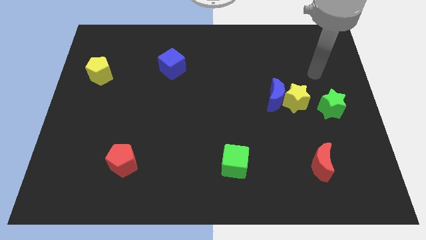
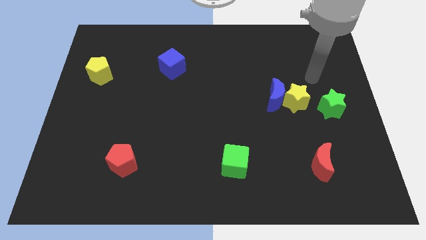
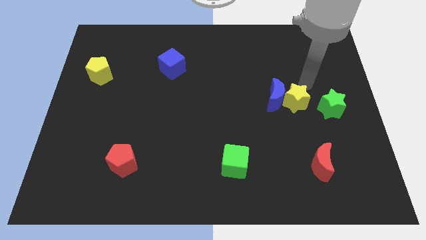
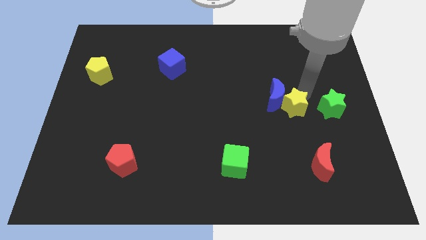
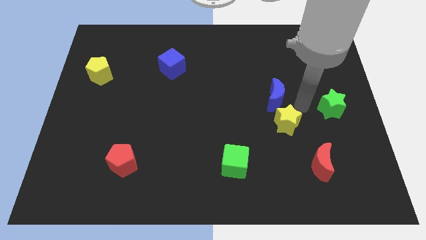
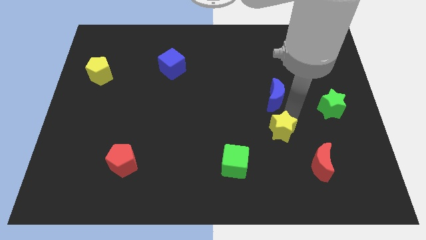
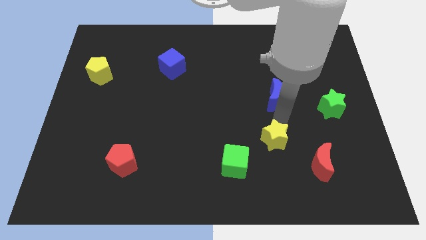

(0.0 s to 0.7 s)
move the blue moon away from the yellow star

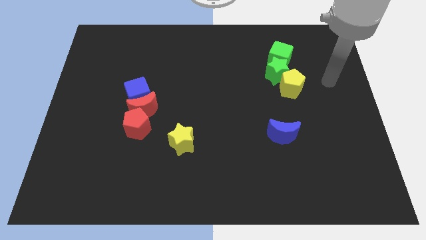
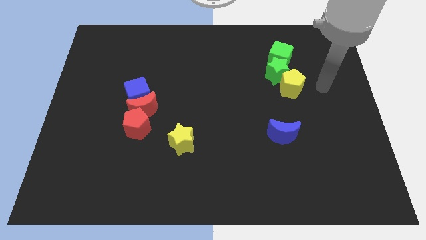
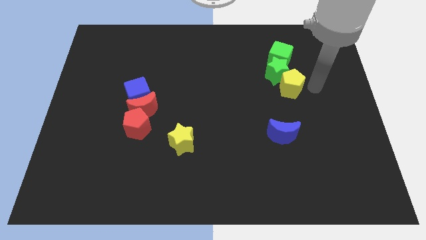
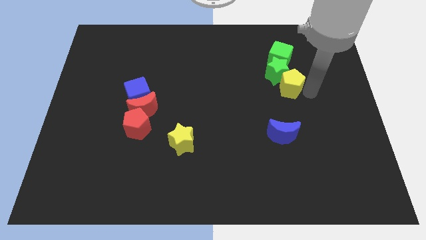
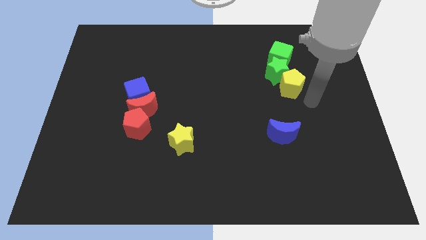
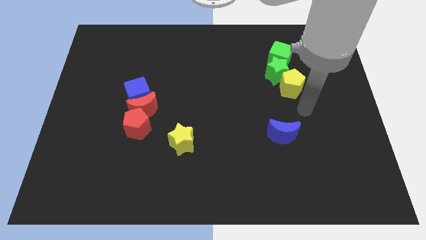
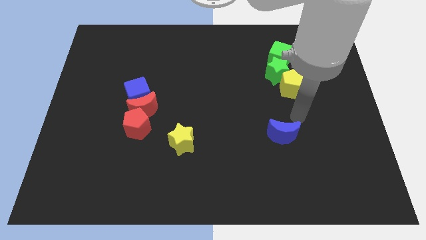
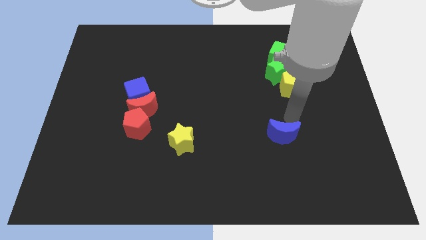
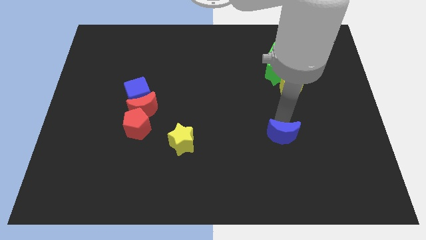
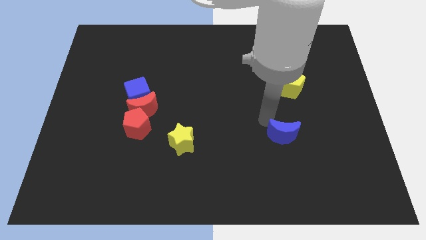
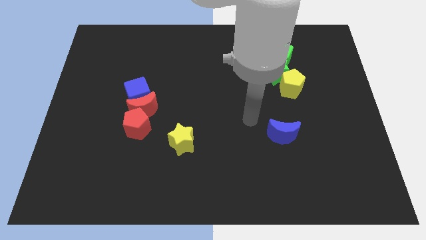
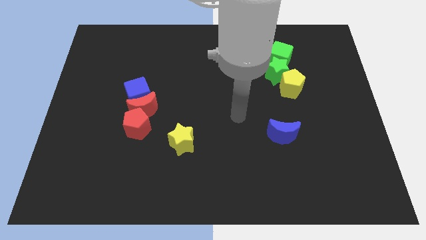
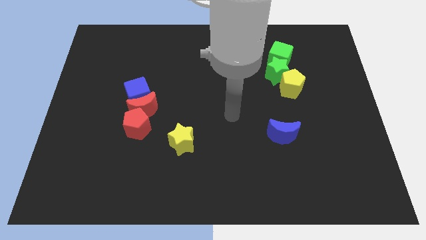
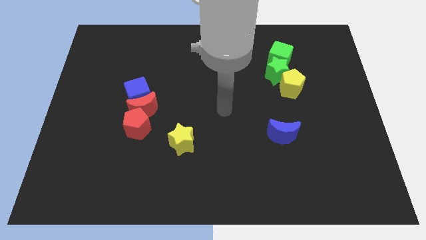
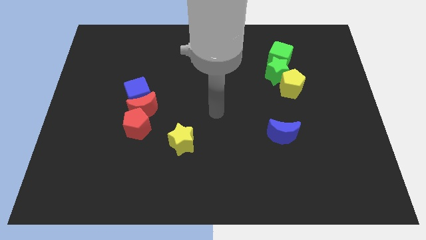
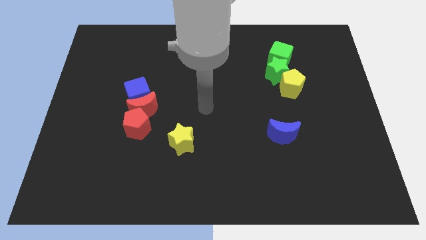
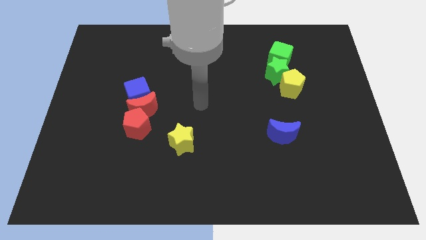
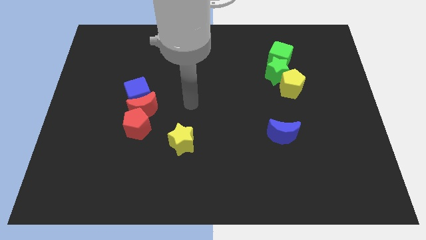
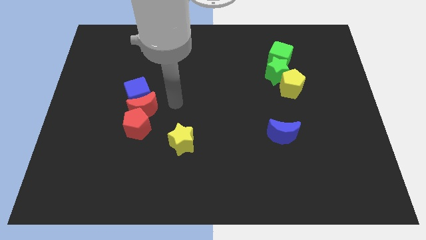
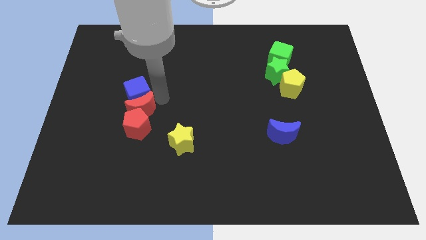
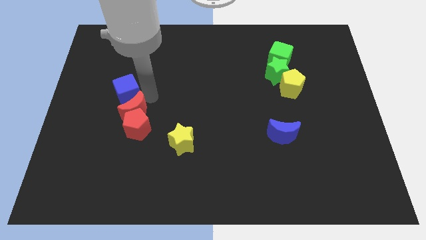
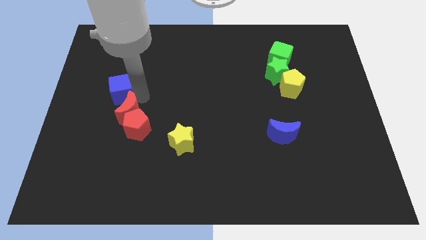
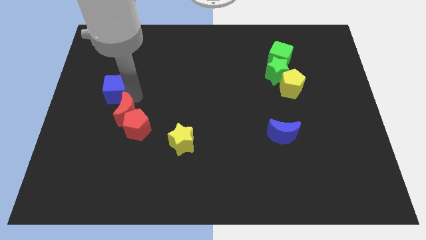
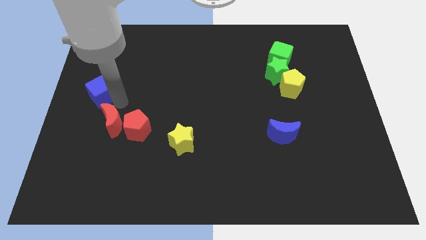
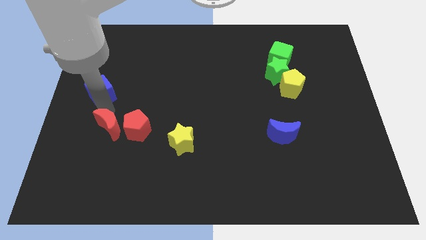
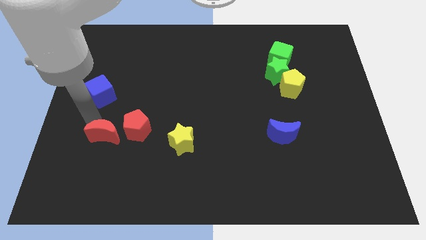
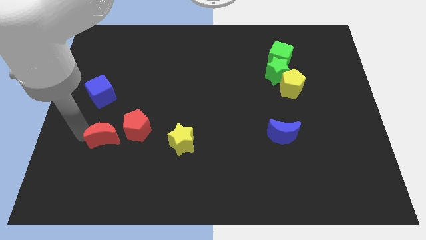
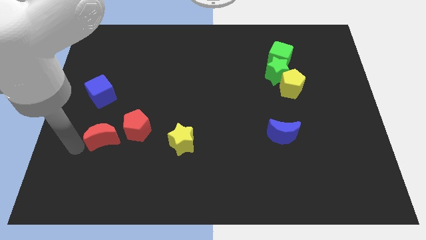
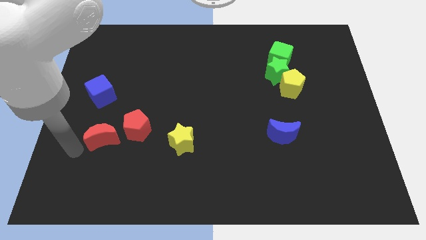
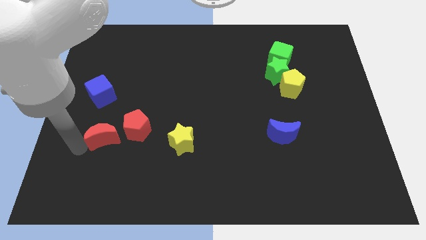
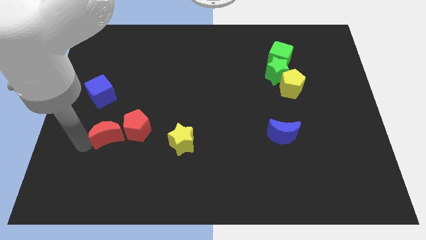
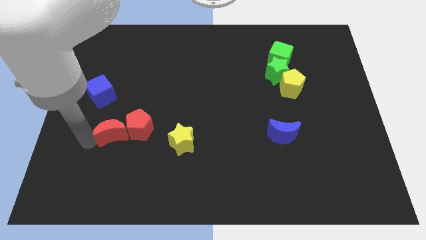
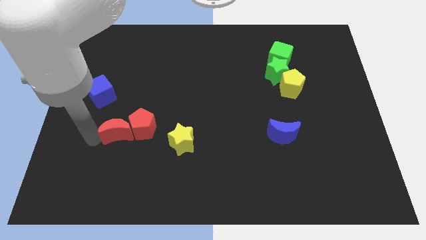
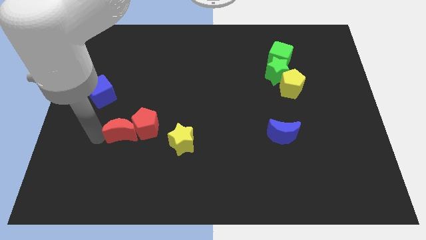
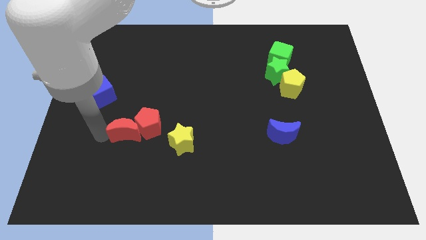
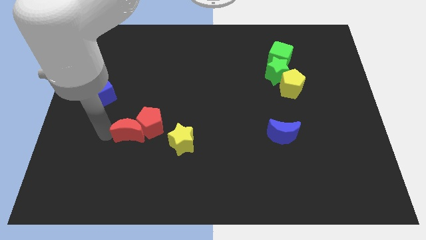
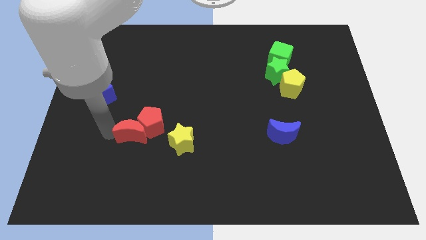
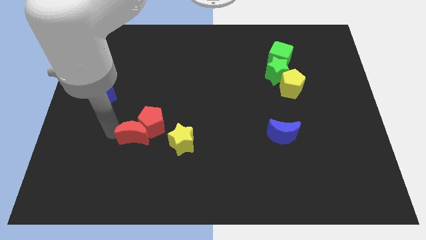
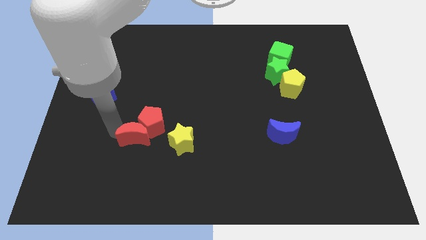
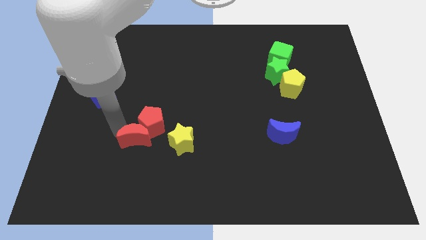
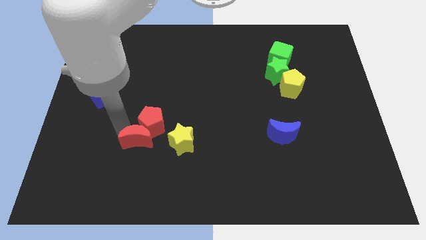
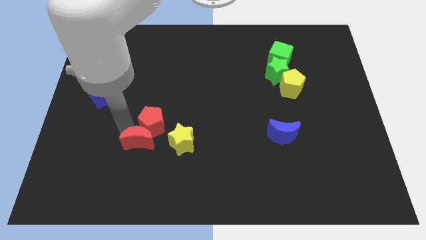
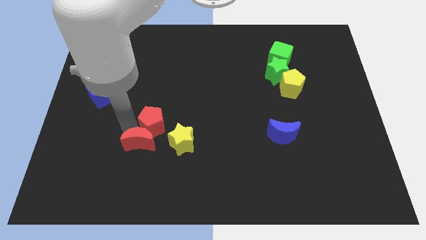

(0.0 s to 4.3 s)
pull the red moon apart from the blue cube and red pentagon

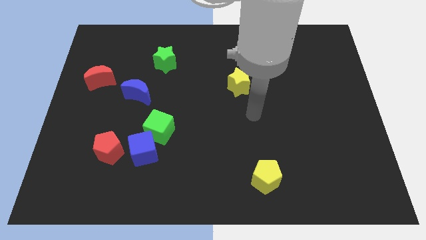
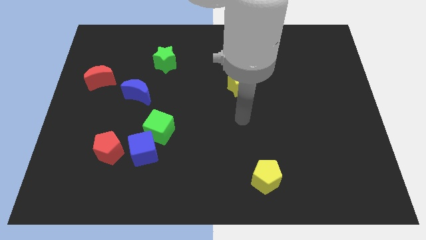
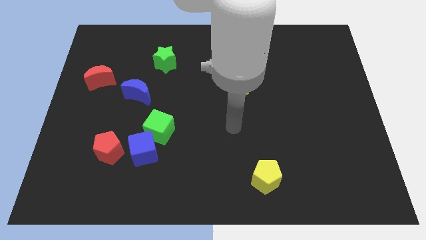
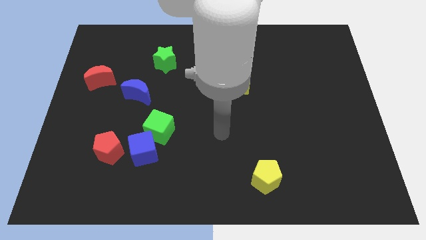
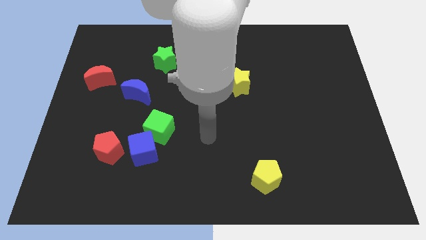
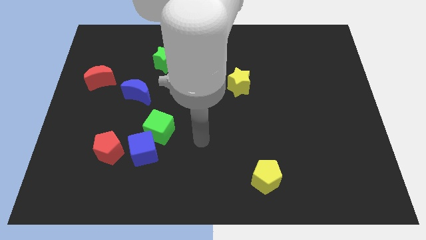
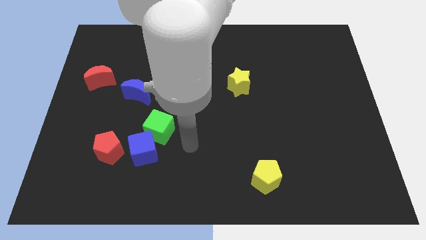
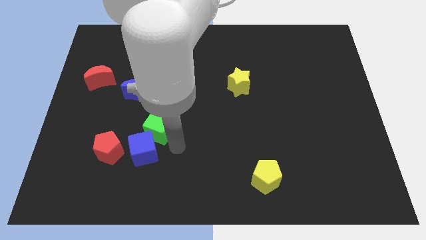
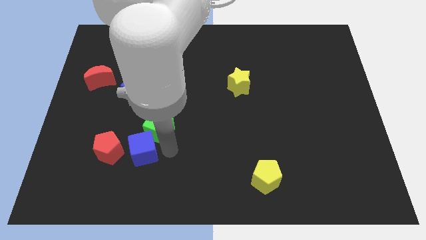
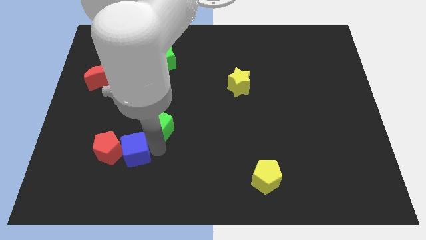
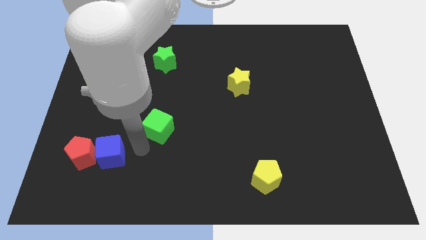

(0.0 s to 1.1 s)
separate the green cube from the blue cube

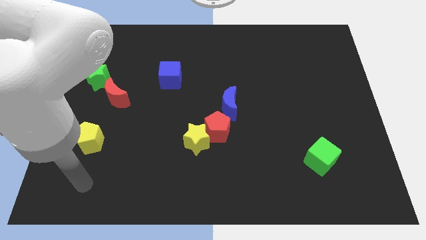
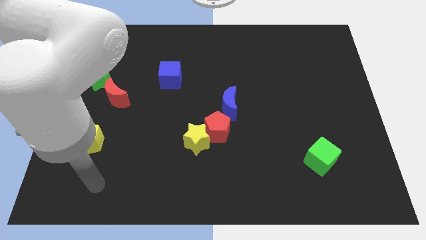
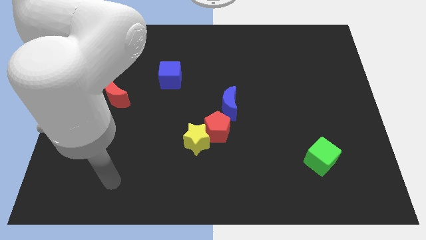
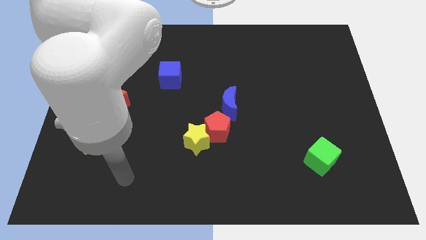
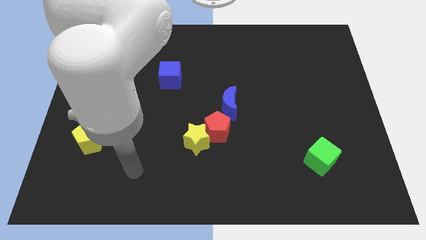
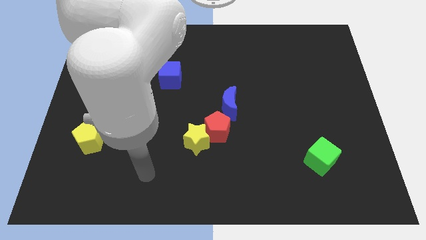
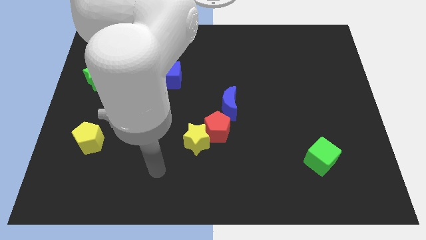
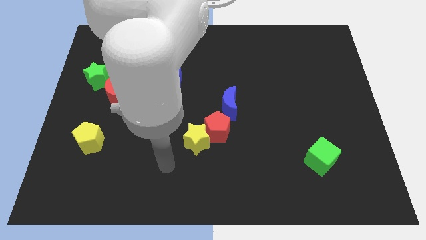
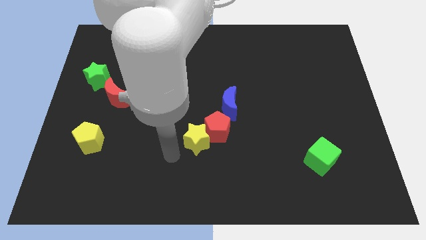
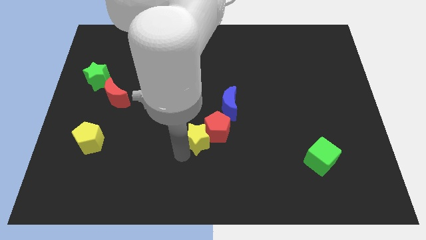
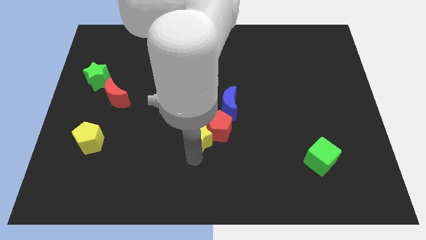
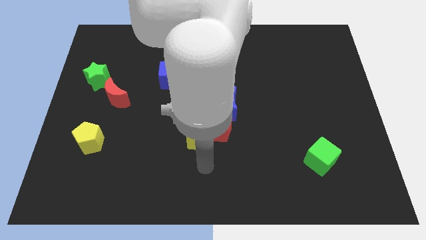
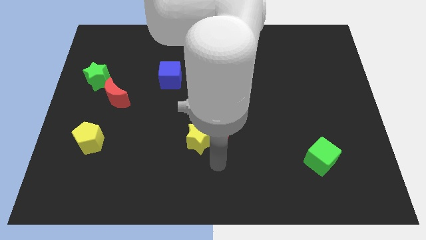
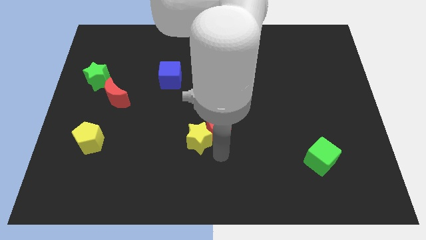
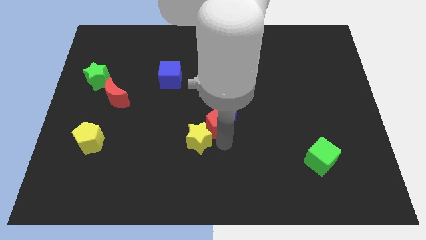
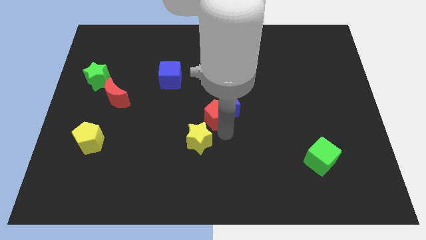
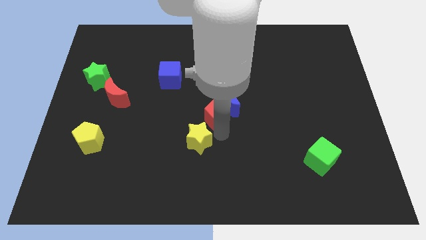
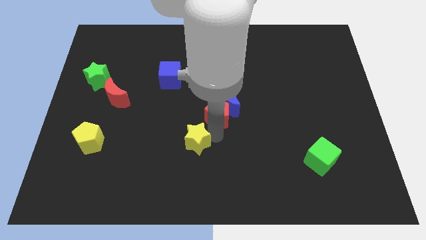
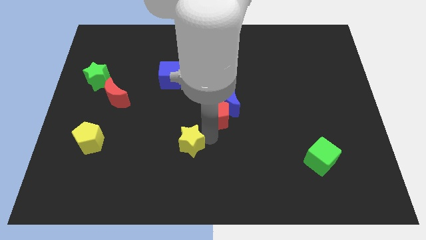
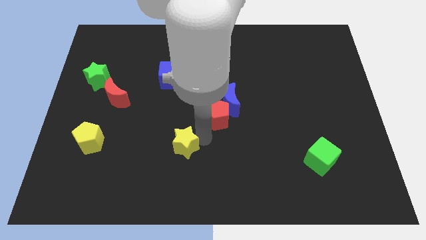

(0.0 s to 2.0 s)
pull the yellow star apart from the red pentagon

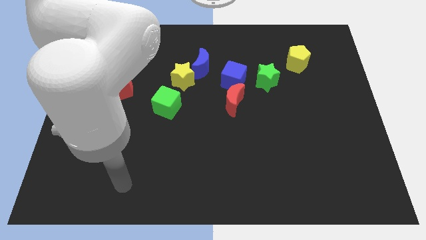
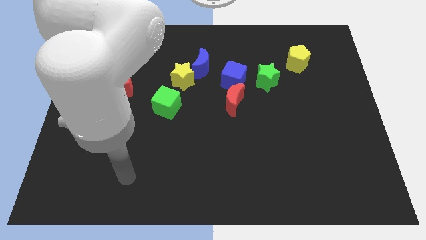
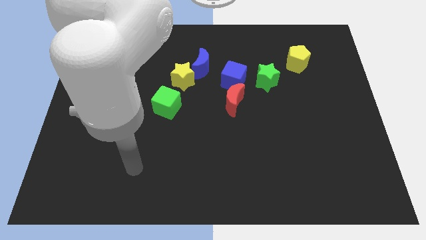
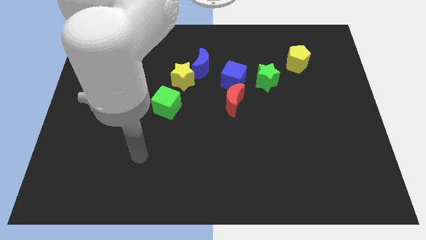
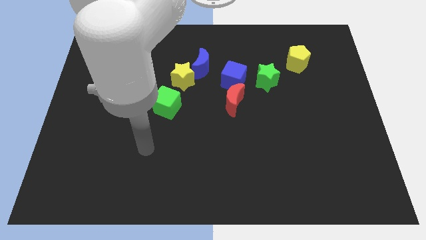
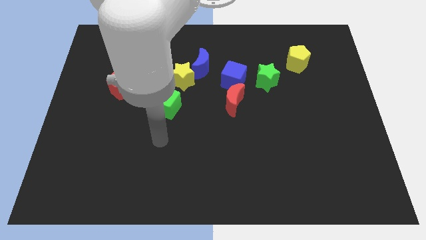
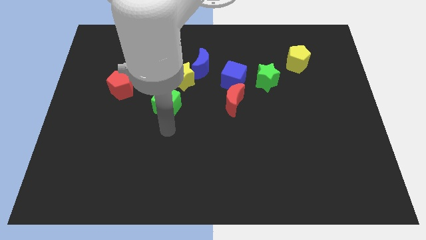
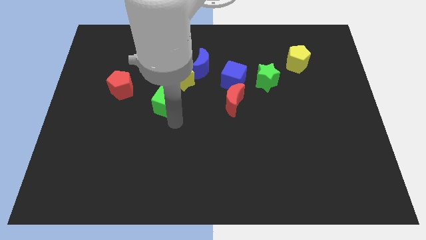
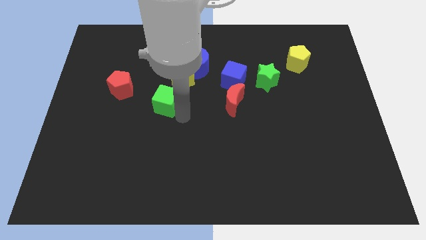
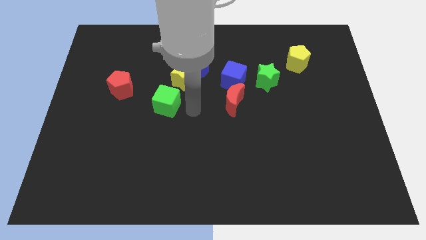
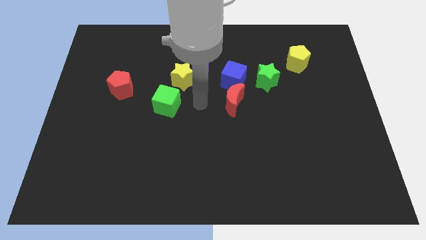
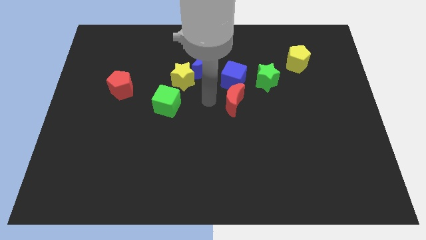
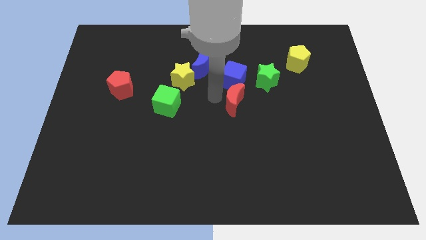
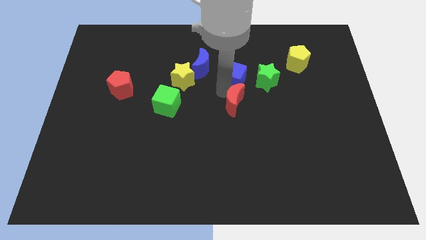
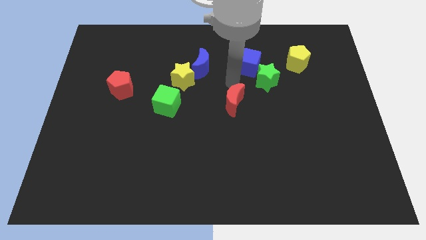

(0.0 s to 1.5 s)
pull the red moon apart from the blue cube
